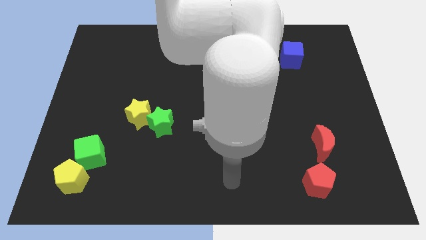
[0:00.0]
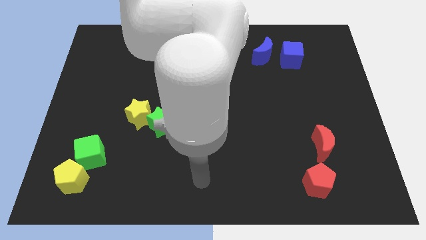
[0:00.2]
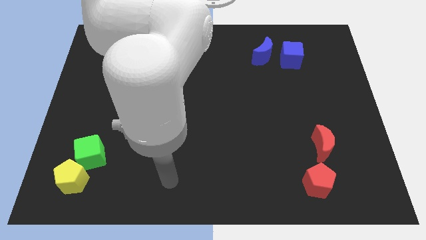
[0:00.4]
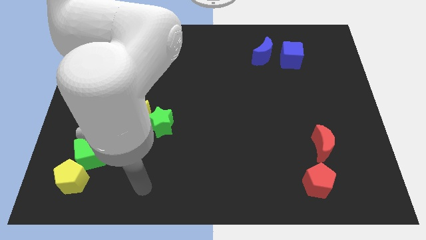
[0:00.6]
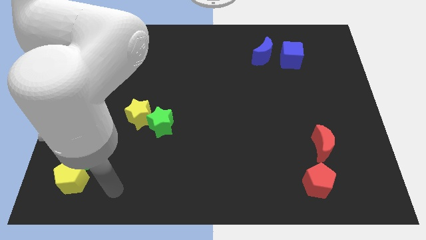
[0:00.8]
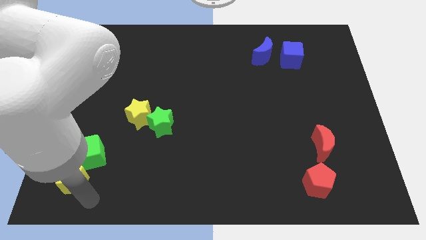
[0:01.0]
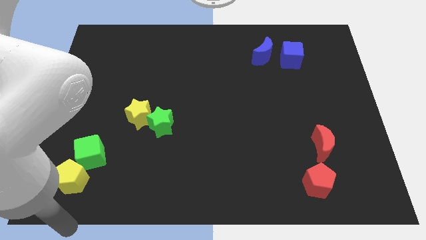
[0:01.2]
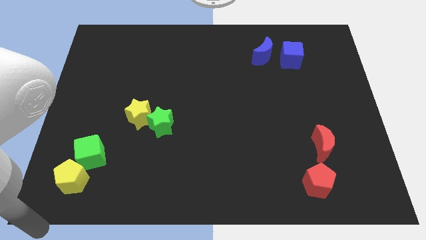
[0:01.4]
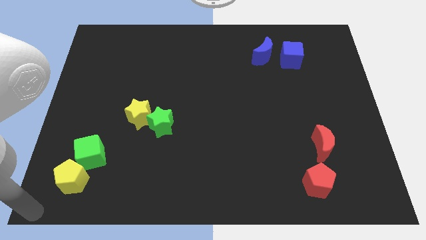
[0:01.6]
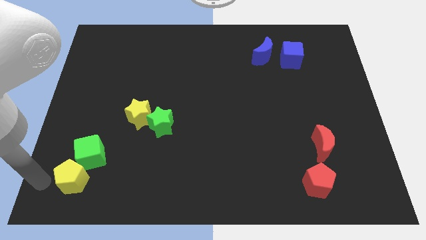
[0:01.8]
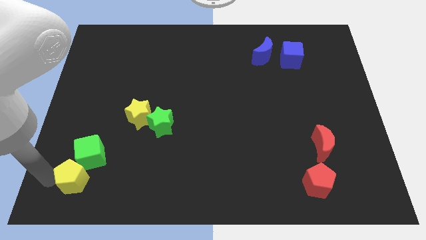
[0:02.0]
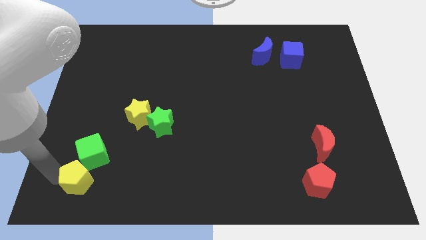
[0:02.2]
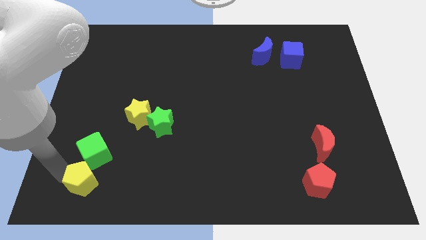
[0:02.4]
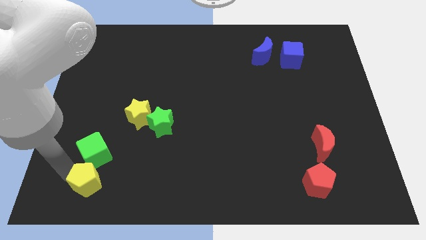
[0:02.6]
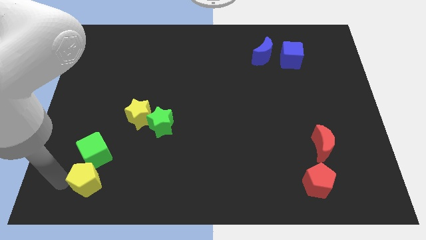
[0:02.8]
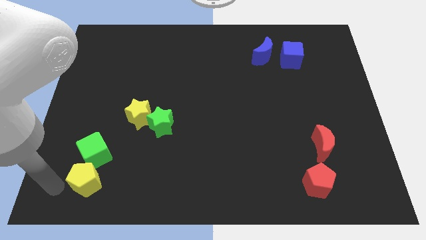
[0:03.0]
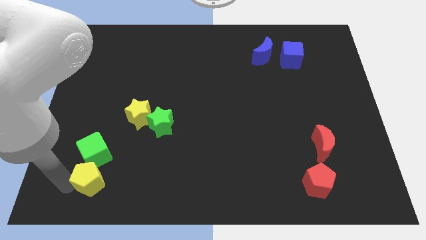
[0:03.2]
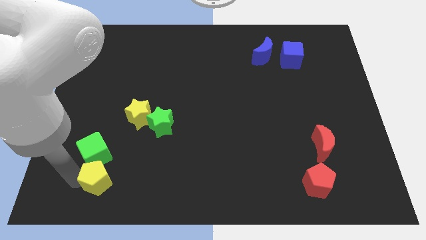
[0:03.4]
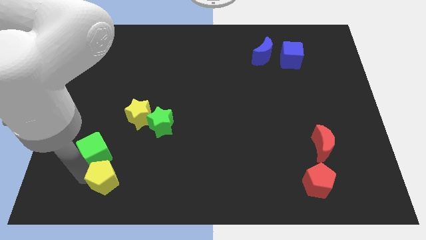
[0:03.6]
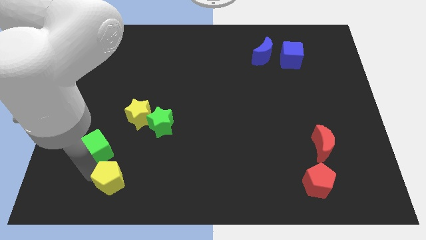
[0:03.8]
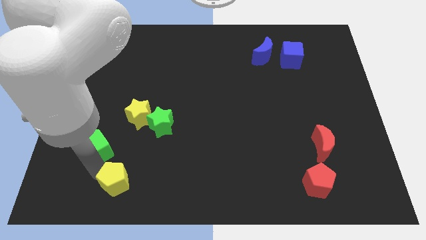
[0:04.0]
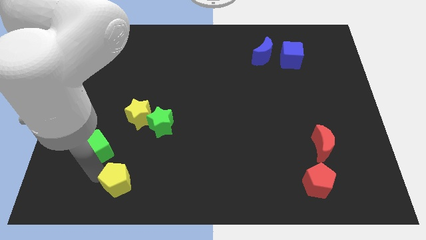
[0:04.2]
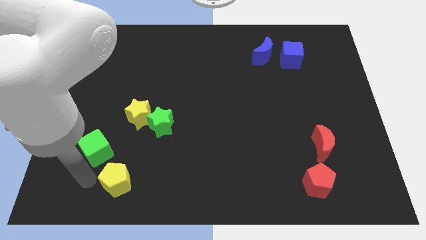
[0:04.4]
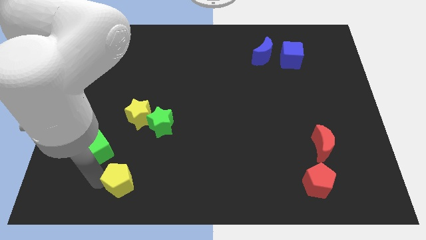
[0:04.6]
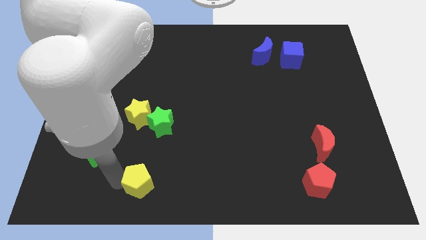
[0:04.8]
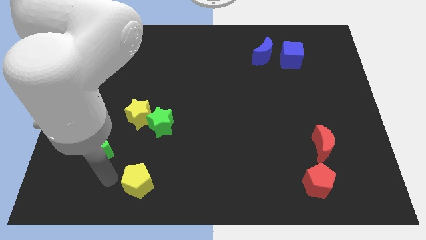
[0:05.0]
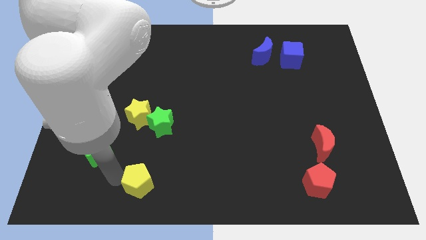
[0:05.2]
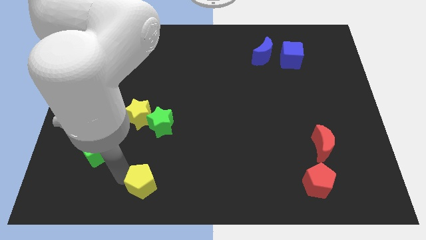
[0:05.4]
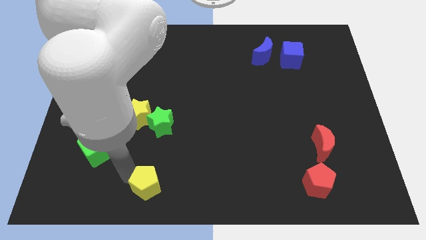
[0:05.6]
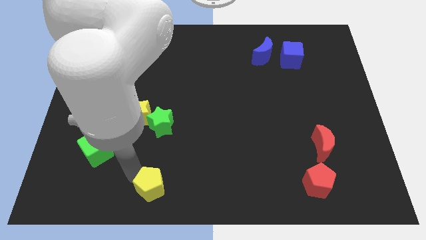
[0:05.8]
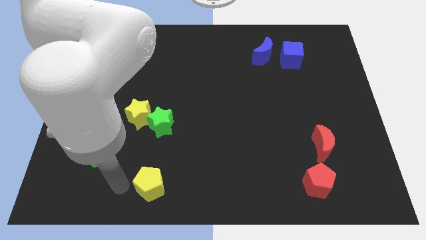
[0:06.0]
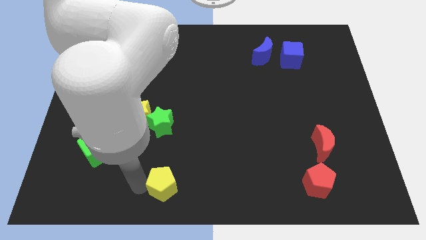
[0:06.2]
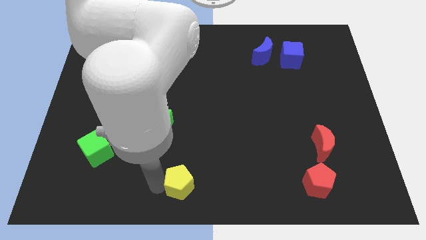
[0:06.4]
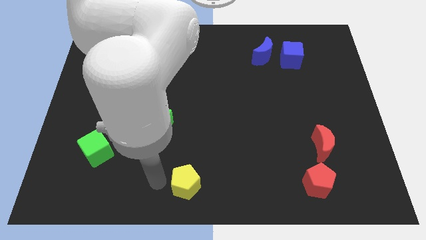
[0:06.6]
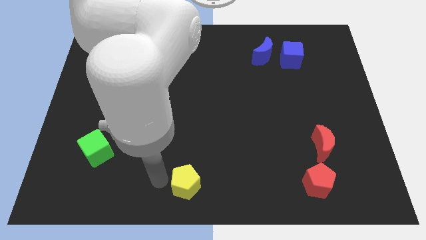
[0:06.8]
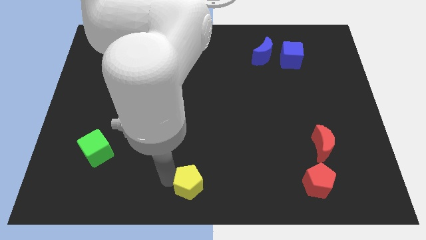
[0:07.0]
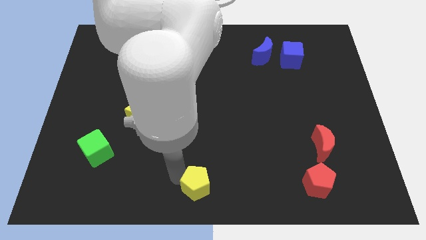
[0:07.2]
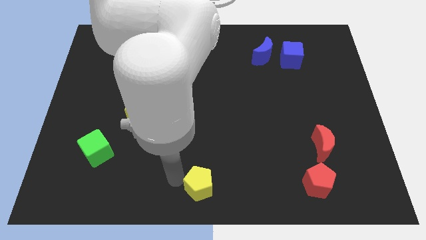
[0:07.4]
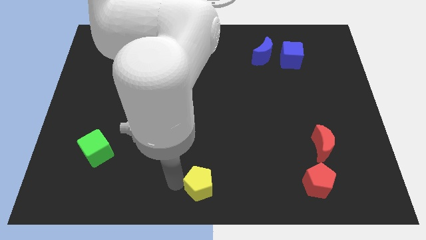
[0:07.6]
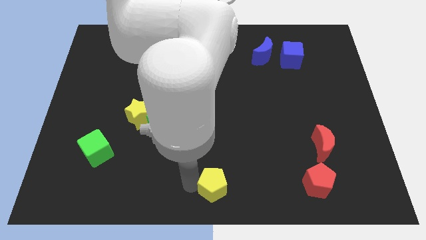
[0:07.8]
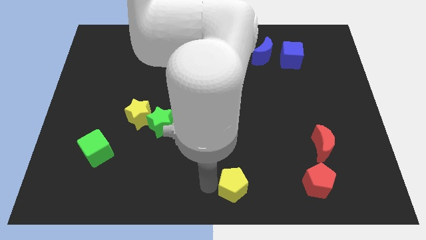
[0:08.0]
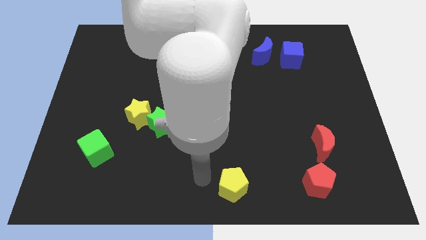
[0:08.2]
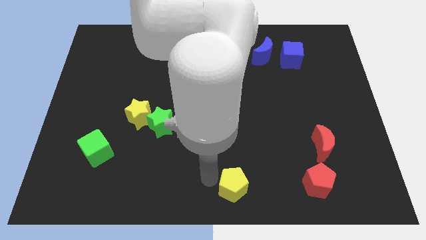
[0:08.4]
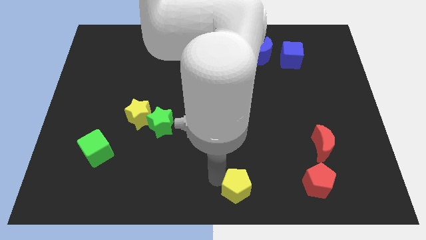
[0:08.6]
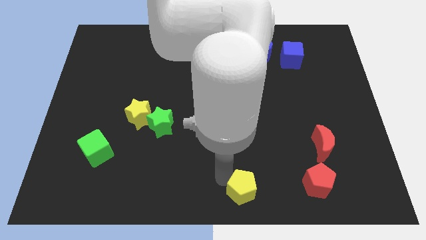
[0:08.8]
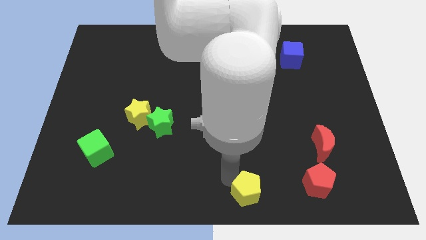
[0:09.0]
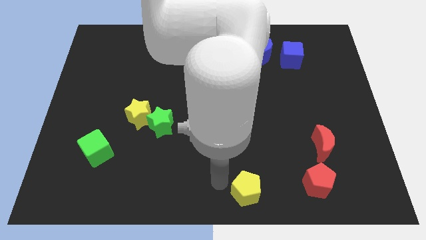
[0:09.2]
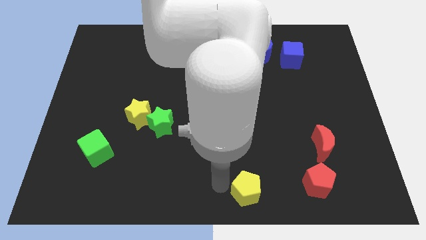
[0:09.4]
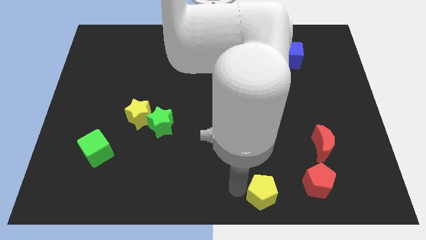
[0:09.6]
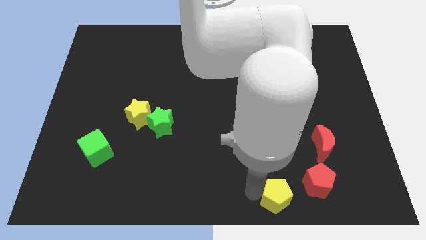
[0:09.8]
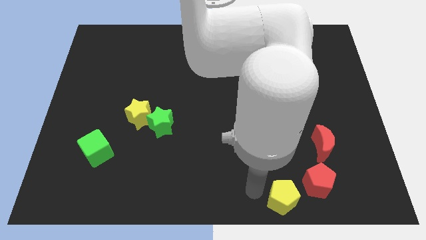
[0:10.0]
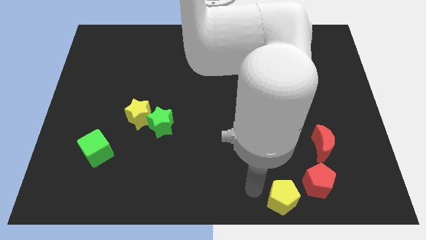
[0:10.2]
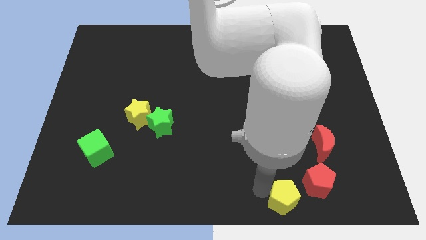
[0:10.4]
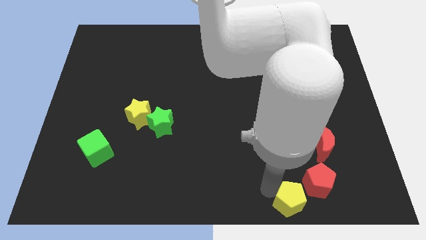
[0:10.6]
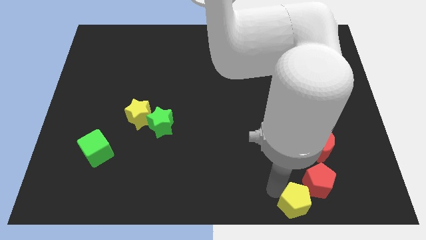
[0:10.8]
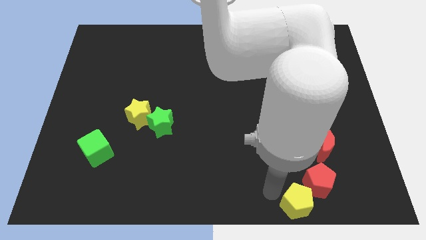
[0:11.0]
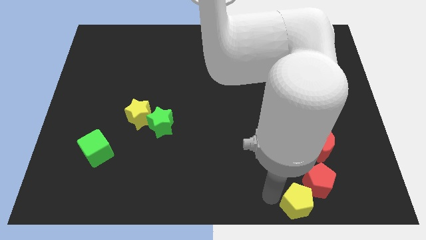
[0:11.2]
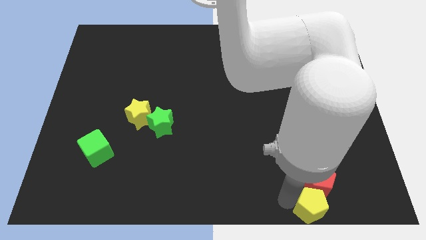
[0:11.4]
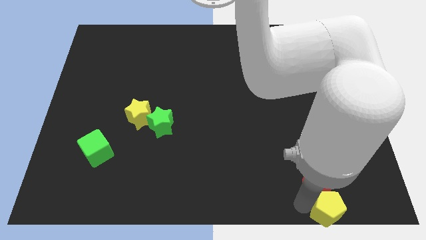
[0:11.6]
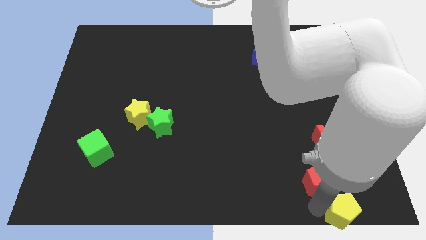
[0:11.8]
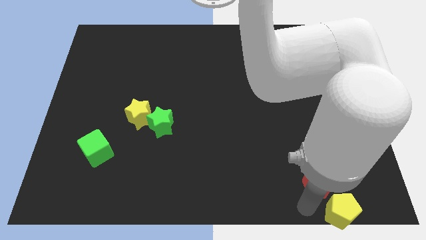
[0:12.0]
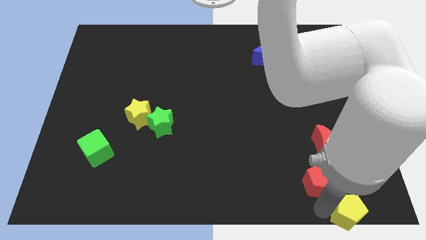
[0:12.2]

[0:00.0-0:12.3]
slide the yellow pentagon to the bottom right corner
